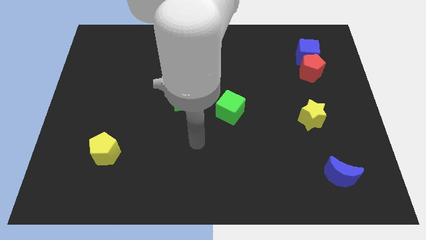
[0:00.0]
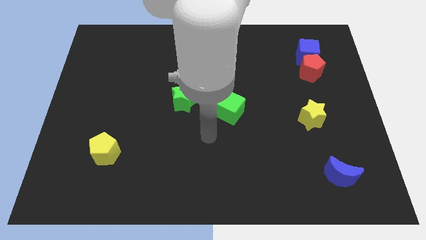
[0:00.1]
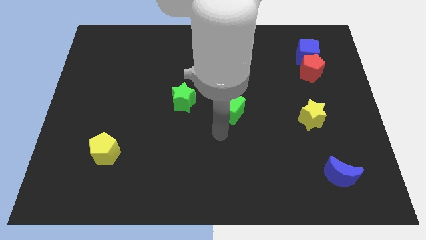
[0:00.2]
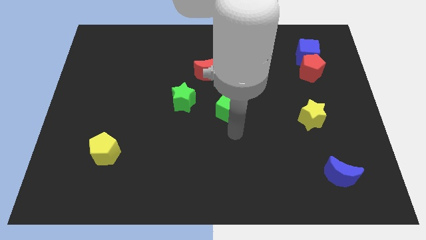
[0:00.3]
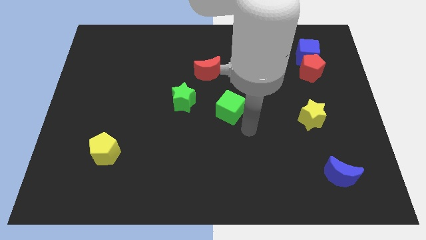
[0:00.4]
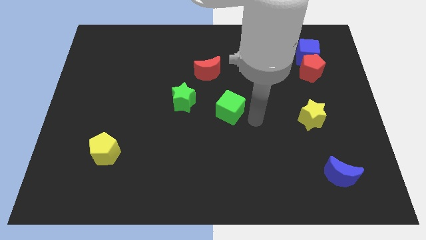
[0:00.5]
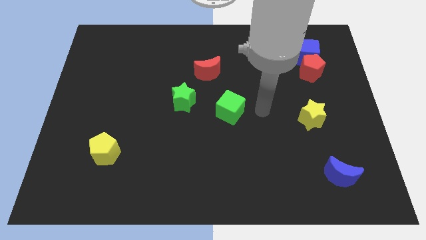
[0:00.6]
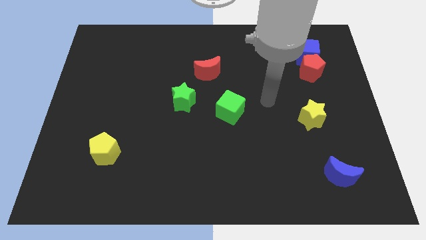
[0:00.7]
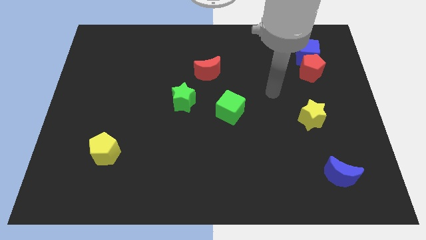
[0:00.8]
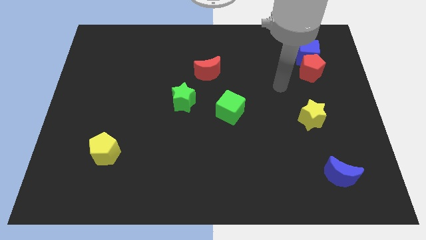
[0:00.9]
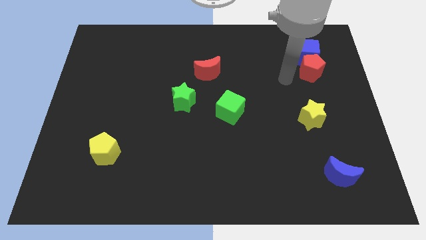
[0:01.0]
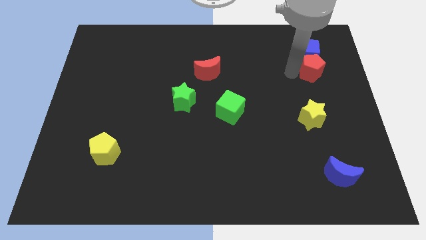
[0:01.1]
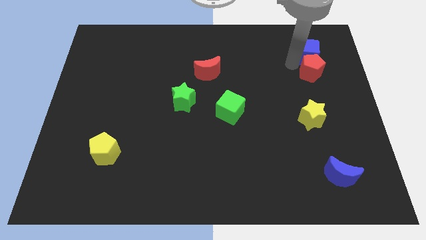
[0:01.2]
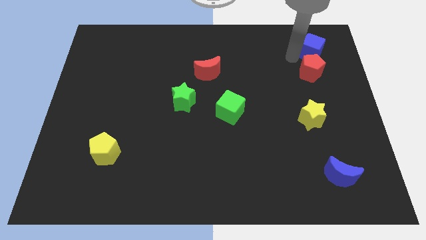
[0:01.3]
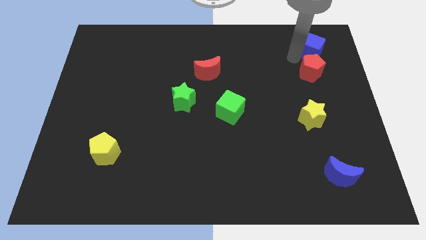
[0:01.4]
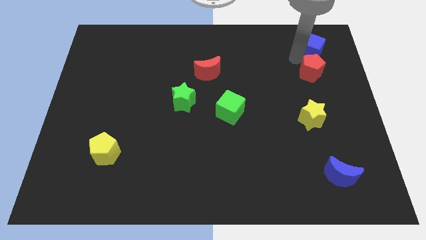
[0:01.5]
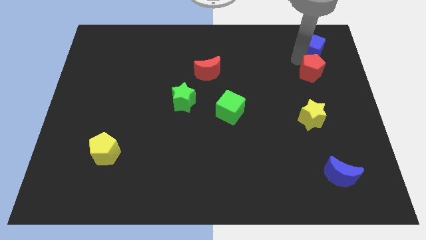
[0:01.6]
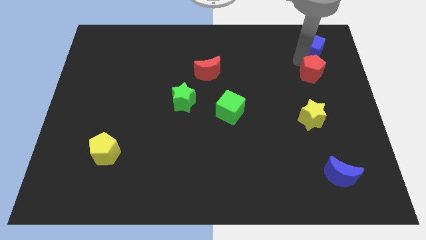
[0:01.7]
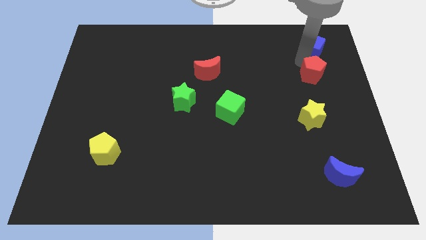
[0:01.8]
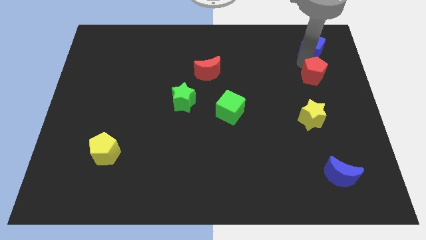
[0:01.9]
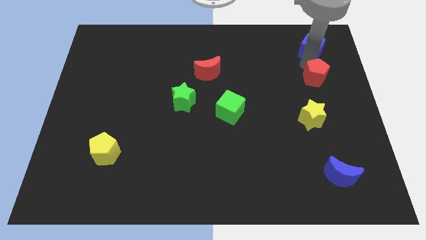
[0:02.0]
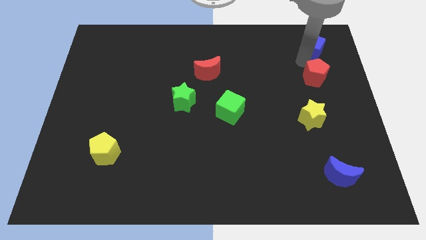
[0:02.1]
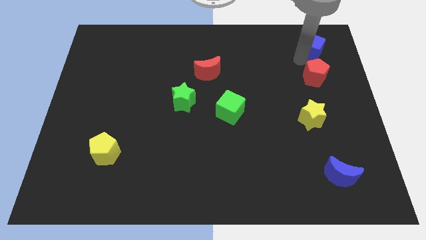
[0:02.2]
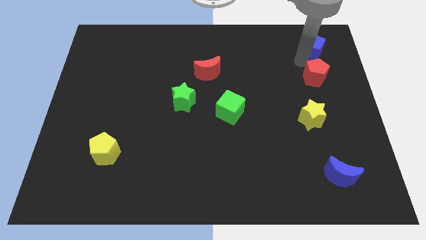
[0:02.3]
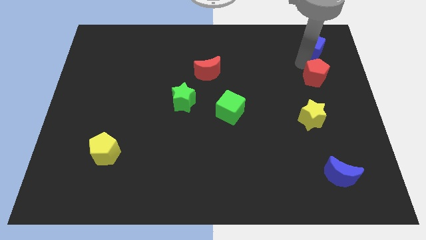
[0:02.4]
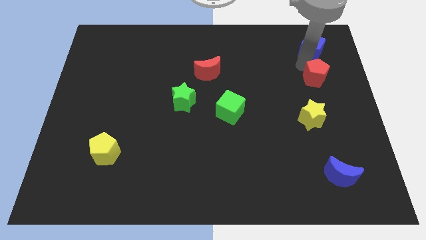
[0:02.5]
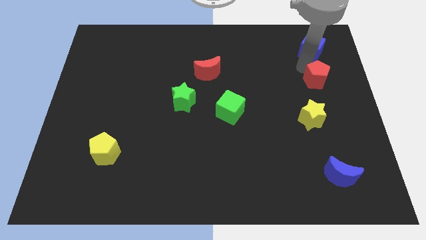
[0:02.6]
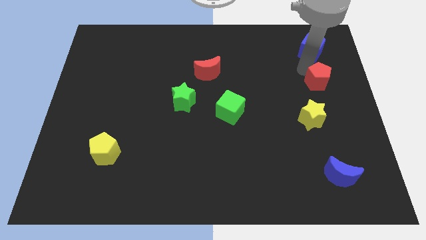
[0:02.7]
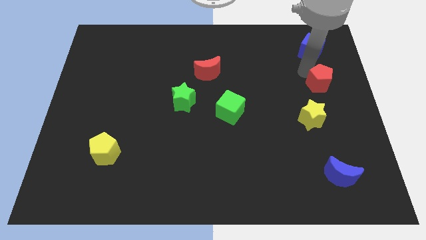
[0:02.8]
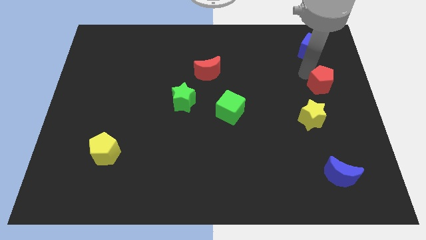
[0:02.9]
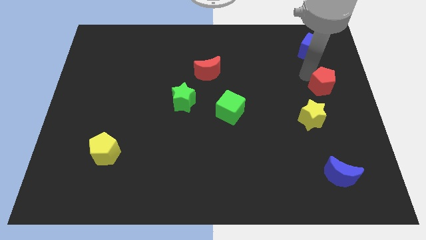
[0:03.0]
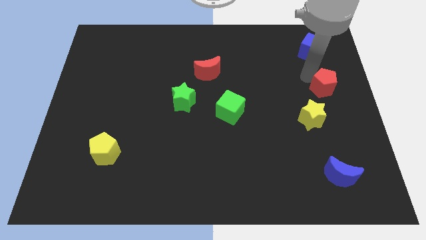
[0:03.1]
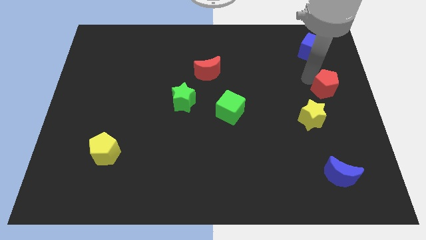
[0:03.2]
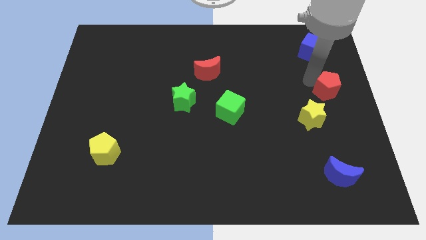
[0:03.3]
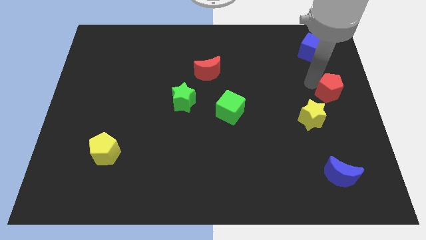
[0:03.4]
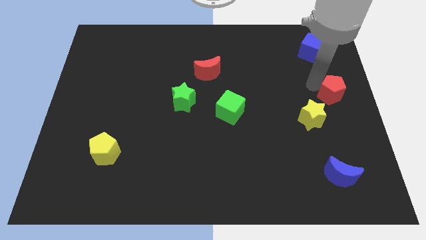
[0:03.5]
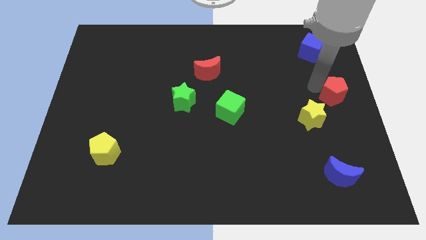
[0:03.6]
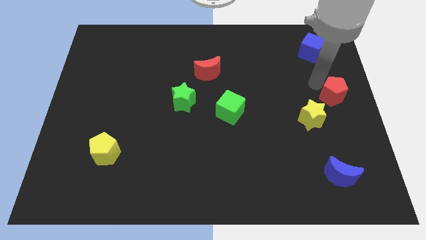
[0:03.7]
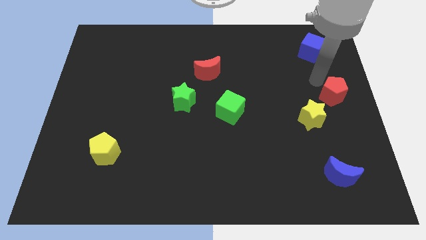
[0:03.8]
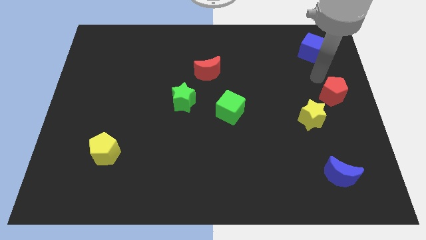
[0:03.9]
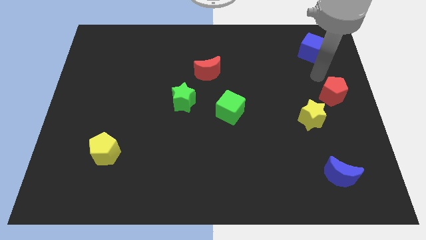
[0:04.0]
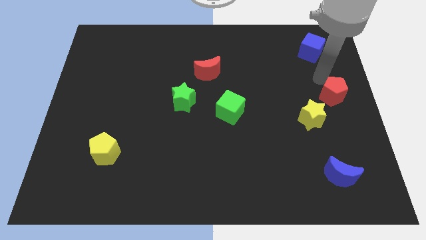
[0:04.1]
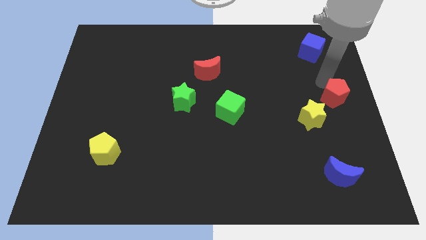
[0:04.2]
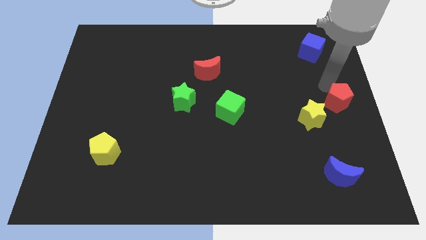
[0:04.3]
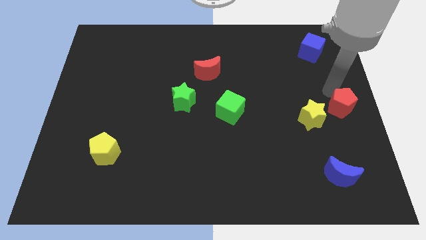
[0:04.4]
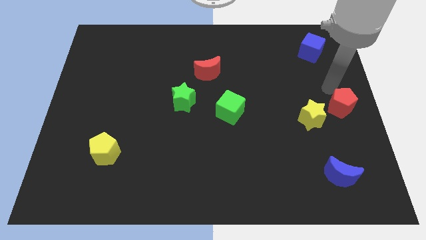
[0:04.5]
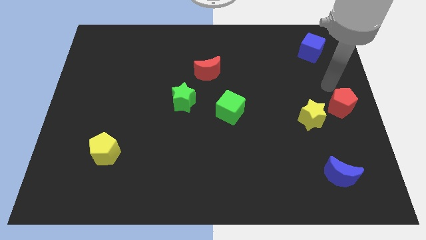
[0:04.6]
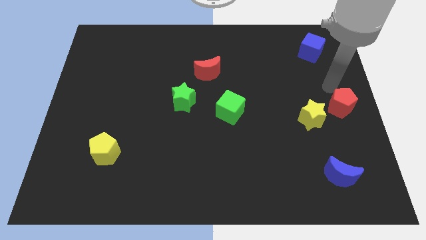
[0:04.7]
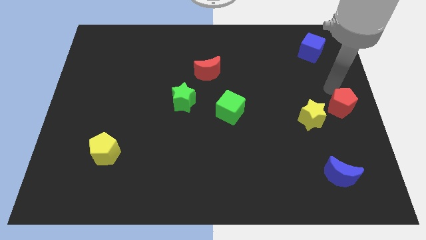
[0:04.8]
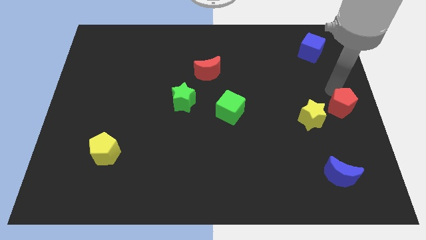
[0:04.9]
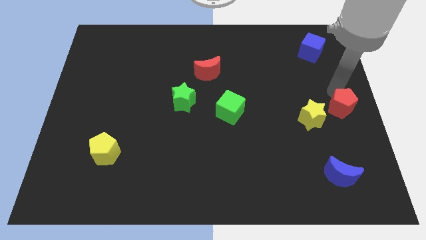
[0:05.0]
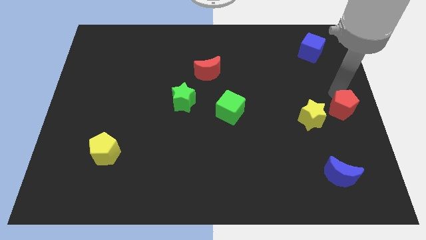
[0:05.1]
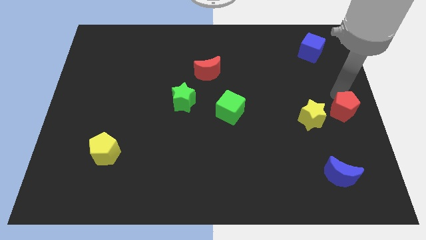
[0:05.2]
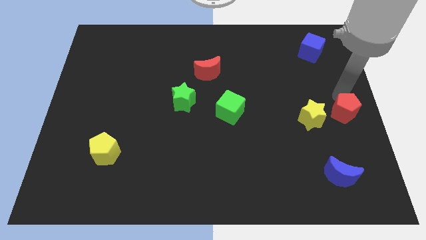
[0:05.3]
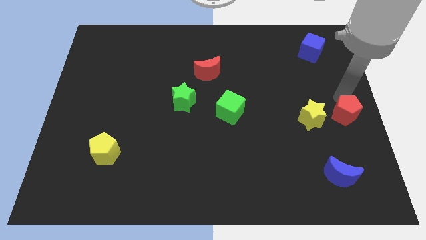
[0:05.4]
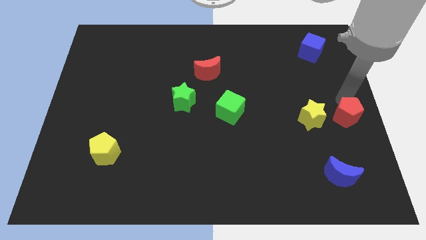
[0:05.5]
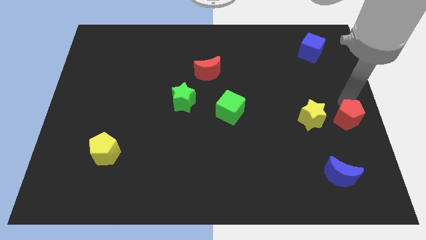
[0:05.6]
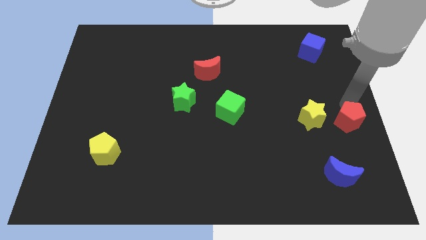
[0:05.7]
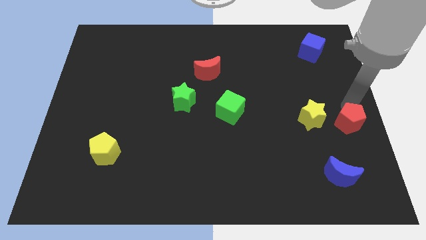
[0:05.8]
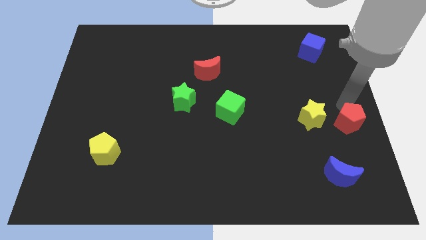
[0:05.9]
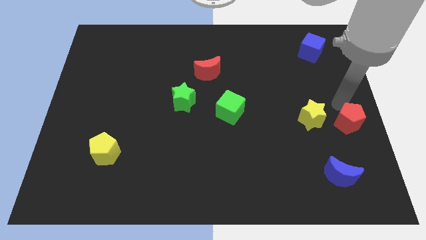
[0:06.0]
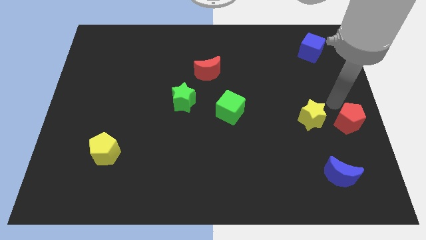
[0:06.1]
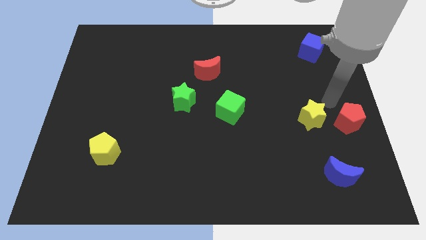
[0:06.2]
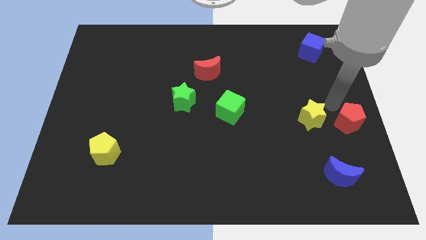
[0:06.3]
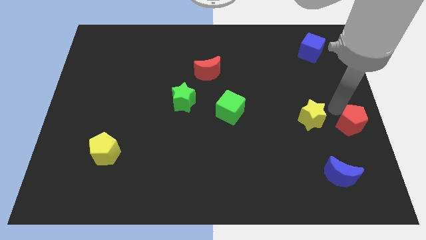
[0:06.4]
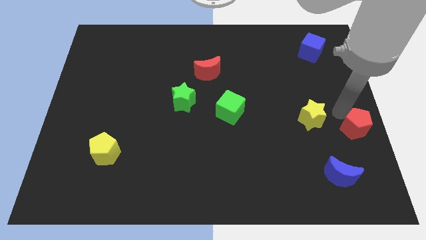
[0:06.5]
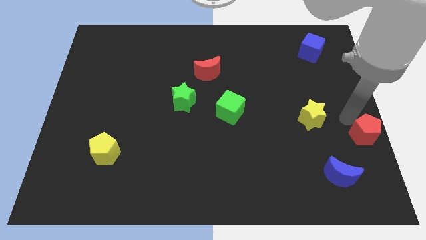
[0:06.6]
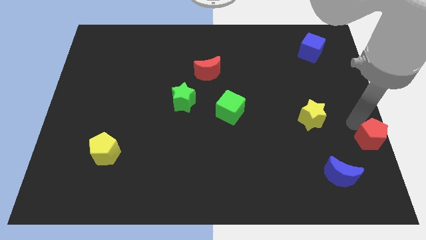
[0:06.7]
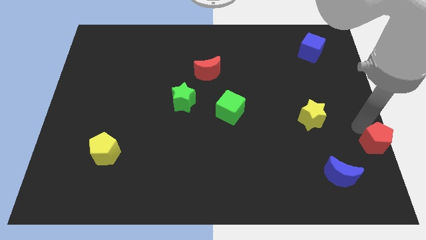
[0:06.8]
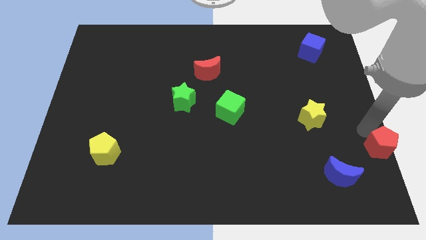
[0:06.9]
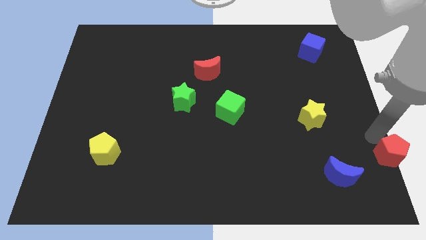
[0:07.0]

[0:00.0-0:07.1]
push the red pentagon to the bottom right of the board

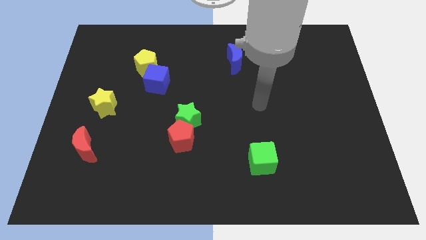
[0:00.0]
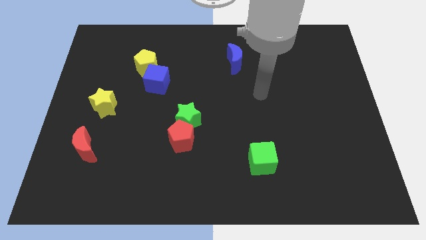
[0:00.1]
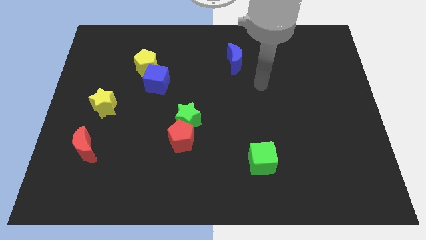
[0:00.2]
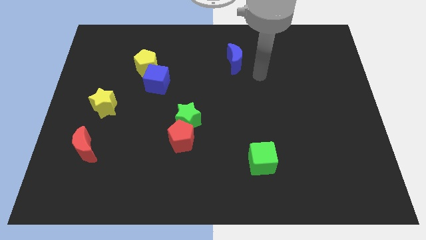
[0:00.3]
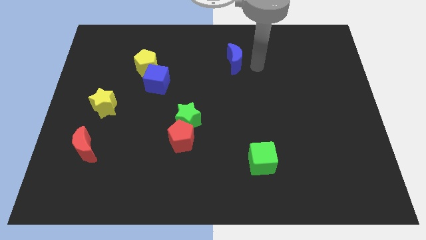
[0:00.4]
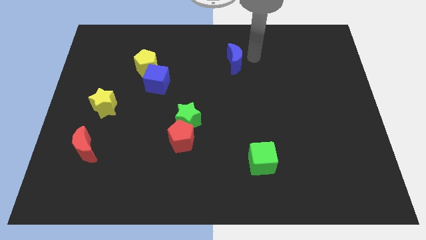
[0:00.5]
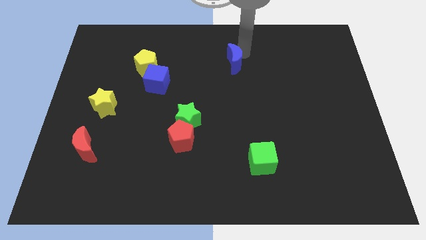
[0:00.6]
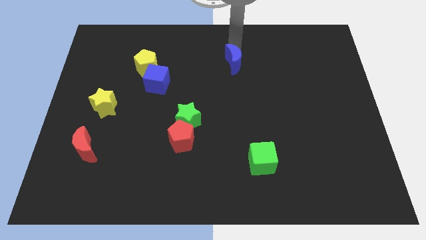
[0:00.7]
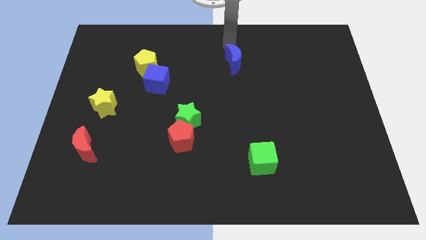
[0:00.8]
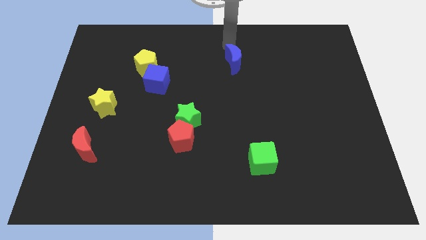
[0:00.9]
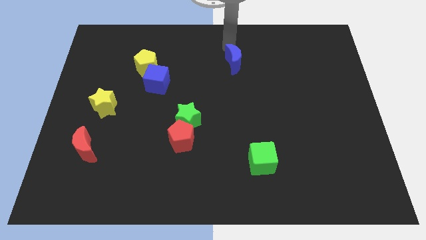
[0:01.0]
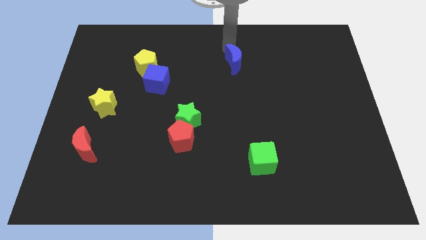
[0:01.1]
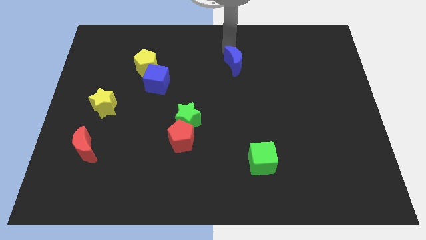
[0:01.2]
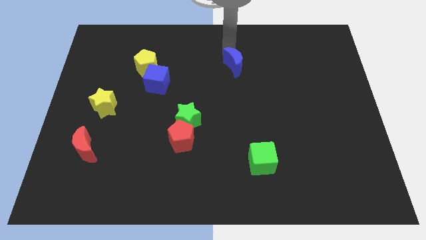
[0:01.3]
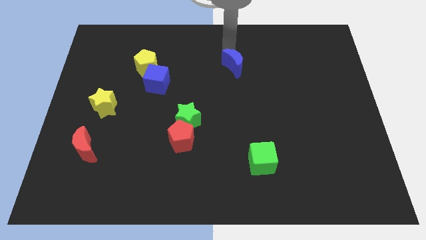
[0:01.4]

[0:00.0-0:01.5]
put the blue moon to the middle
